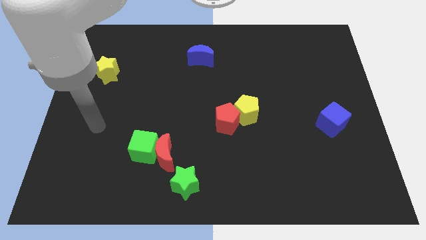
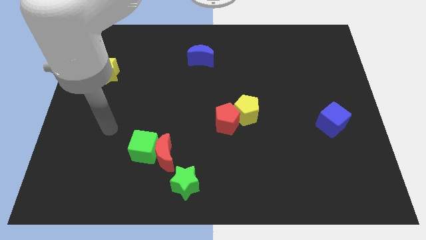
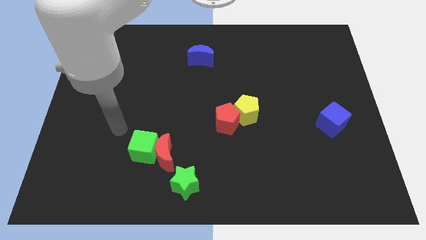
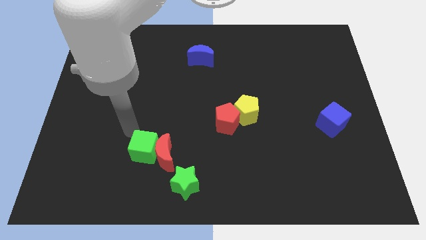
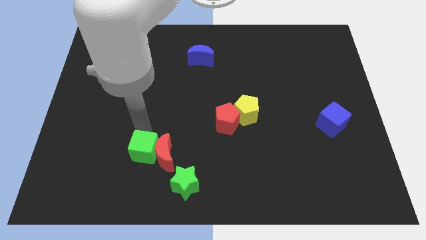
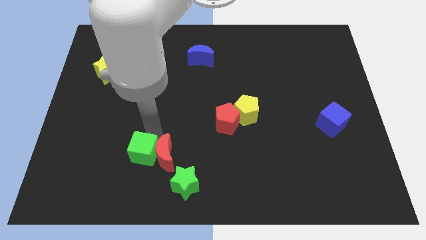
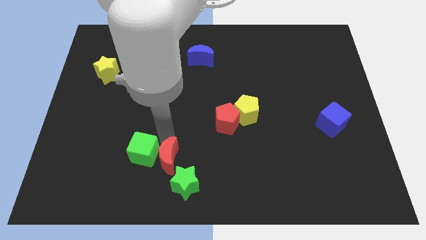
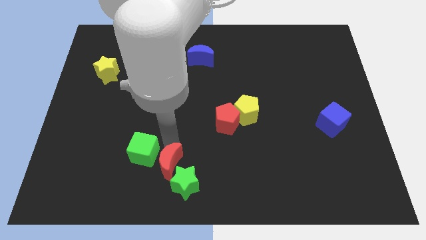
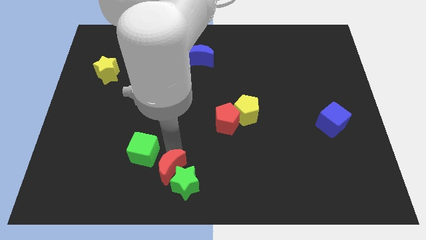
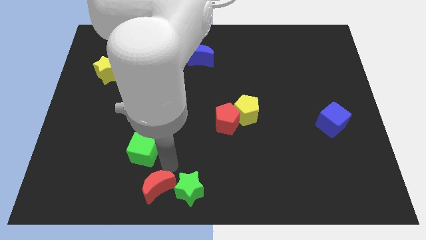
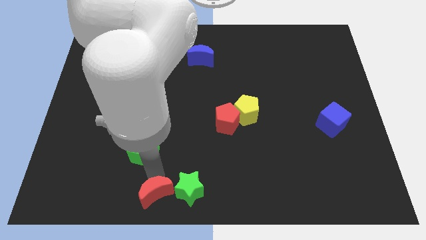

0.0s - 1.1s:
pull the green cube apart from the red moon

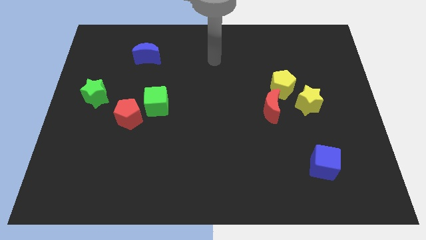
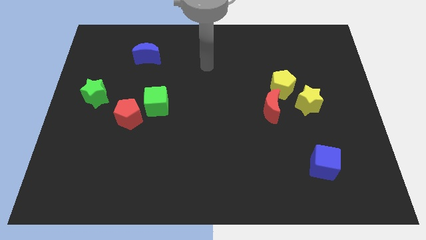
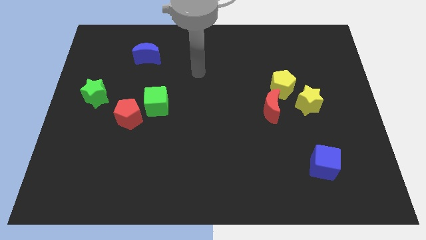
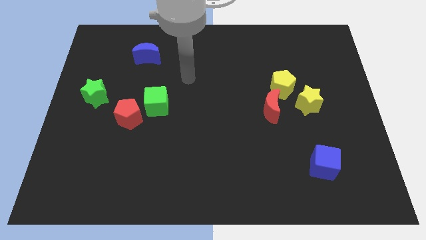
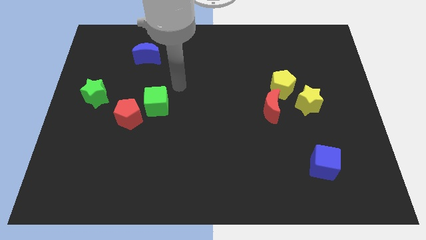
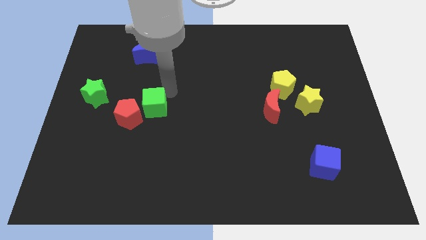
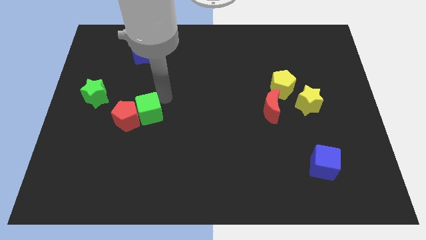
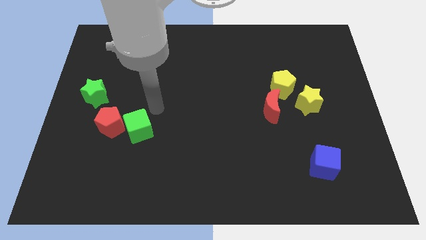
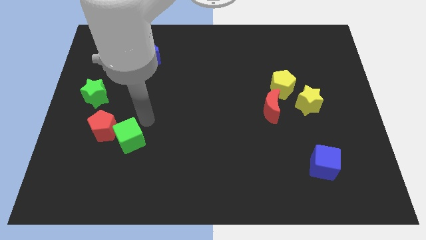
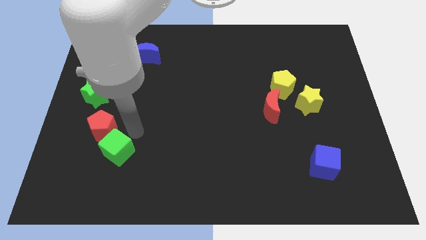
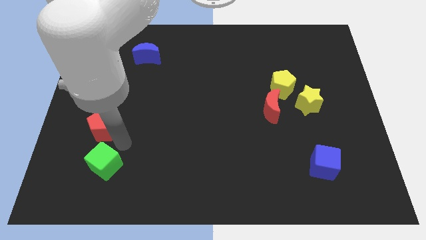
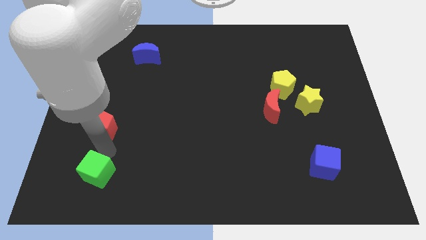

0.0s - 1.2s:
move the red pentagon away from the green cube

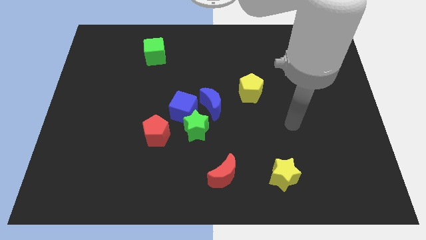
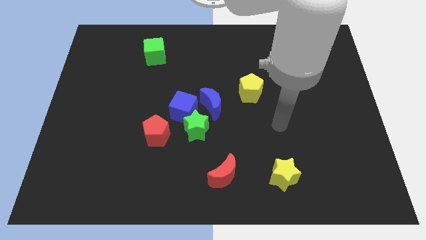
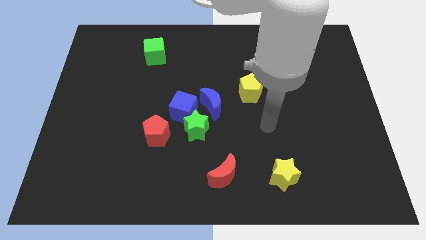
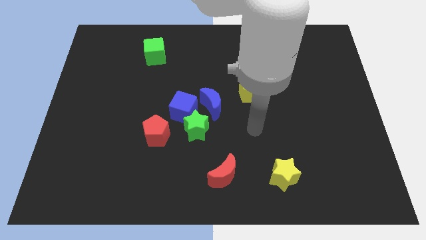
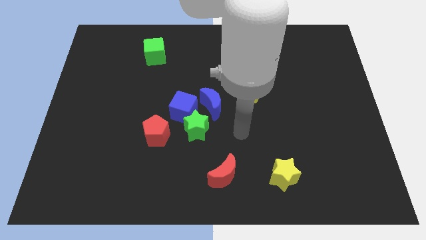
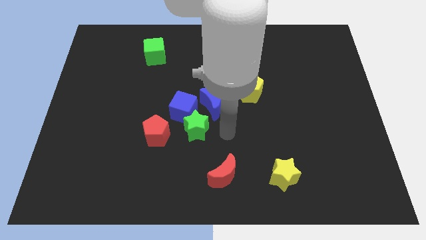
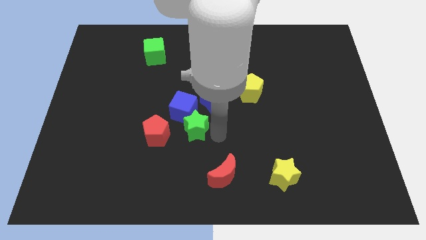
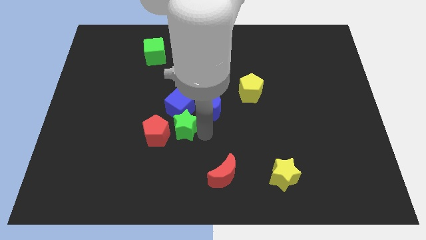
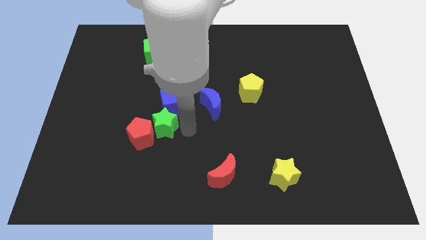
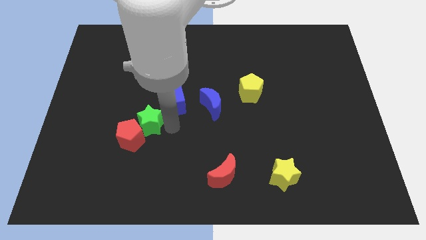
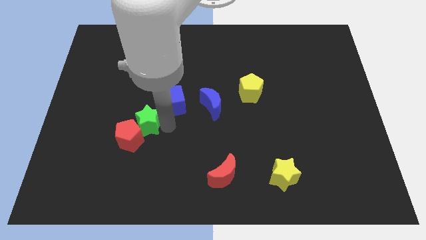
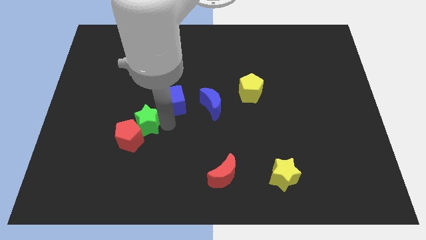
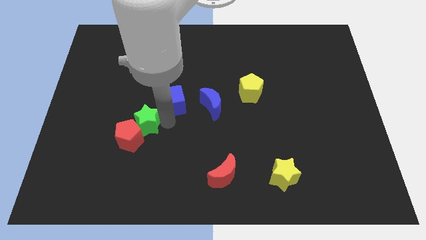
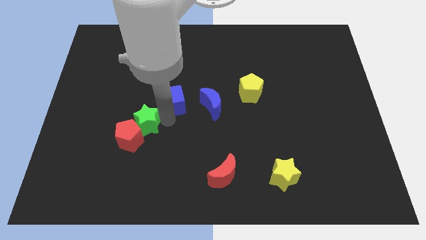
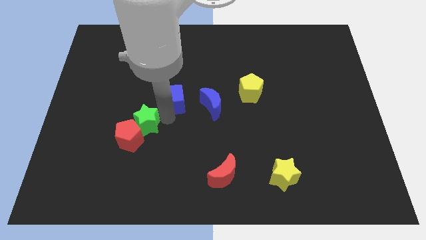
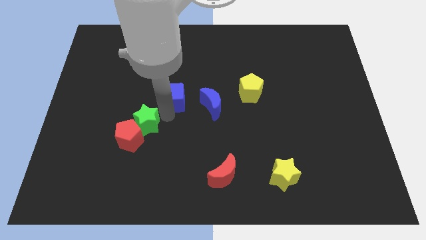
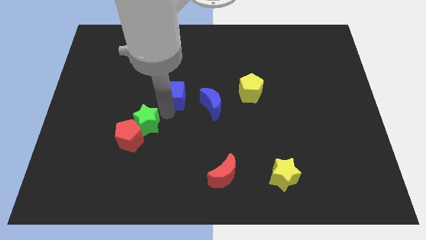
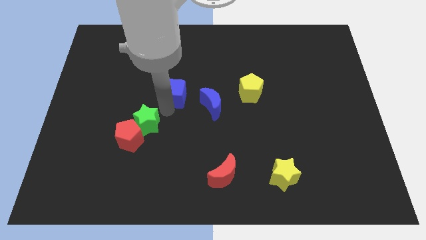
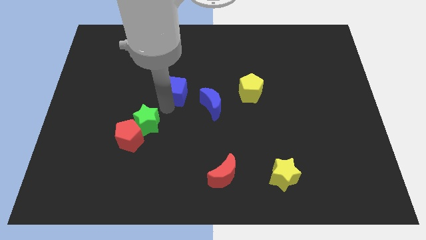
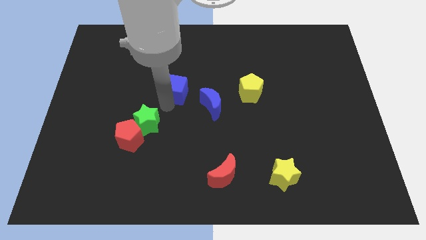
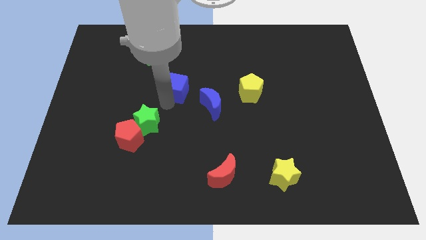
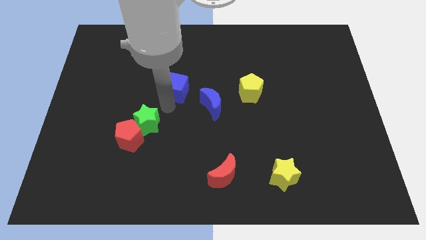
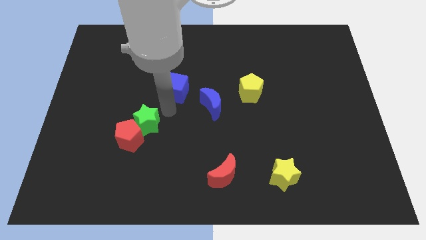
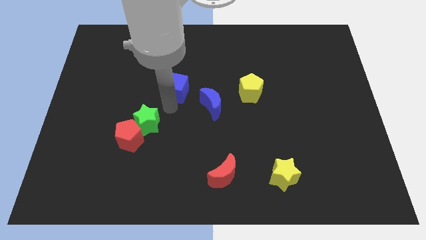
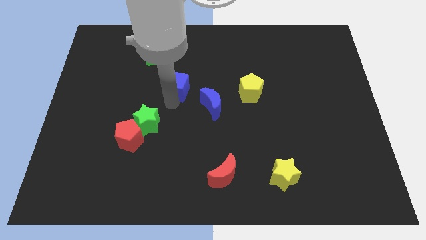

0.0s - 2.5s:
move the blue cube away from the group

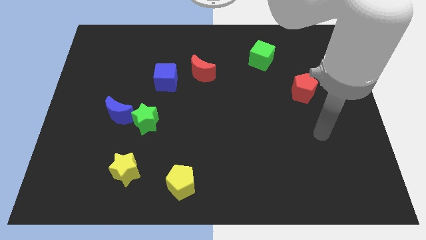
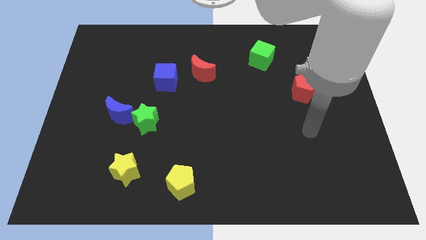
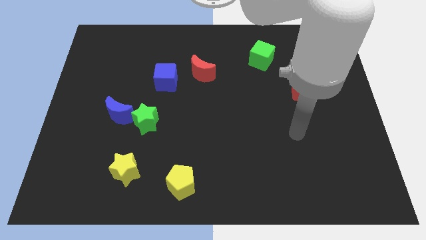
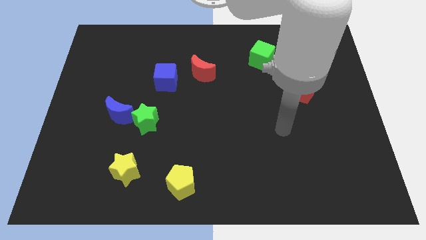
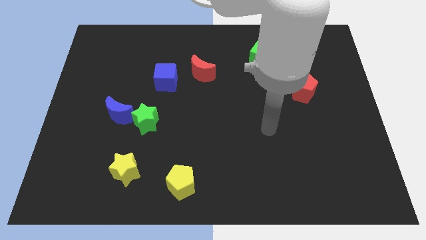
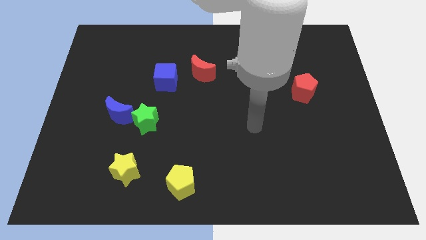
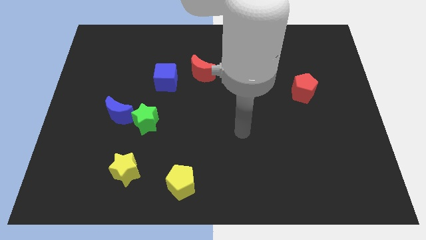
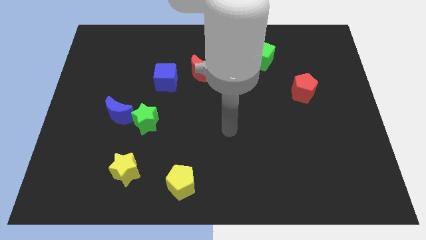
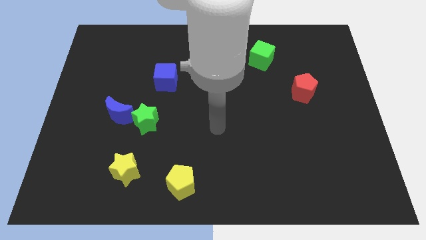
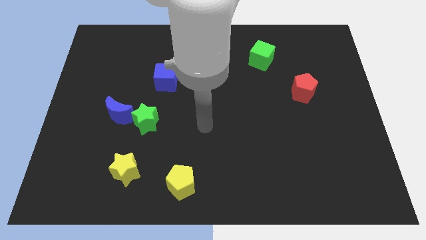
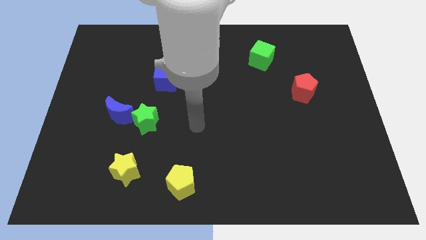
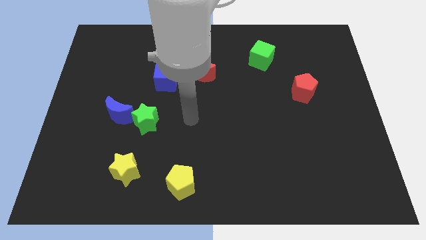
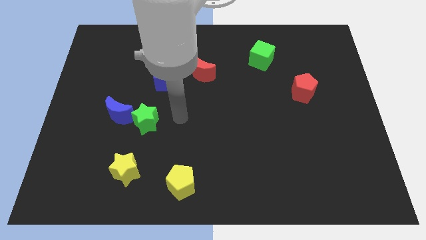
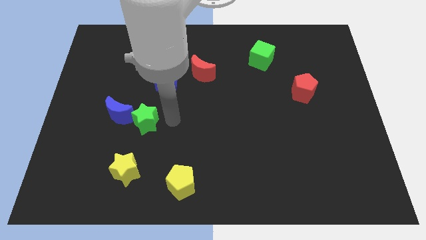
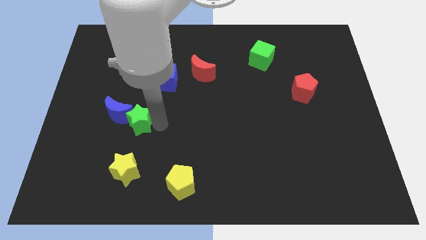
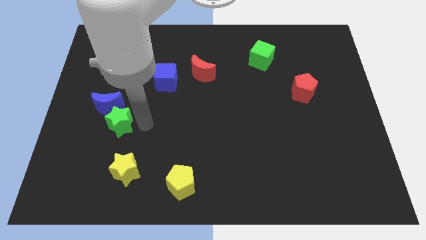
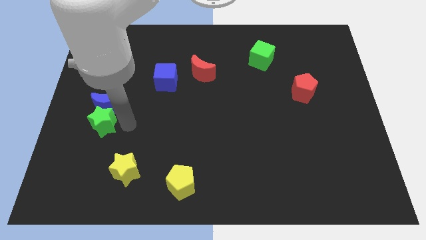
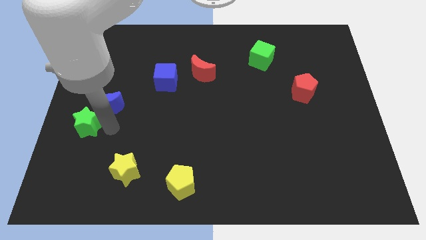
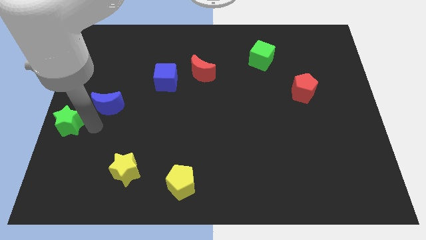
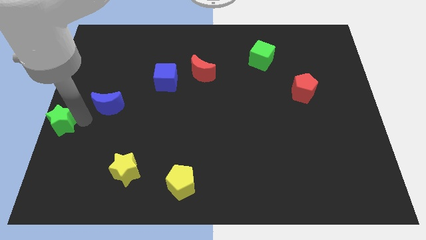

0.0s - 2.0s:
separate the blue moon from the green star

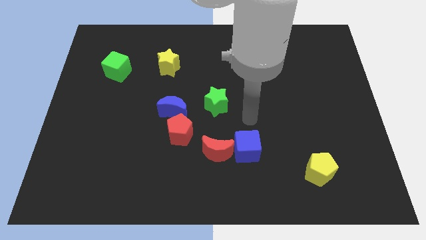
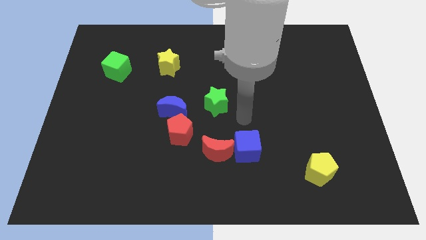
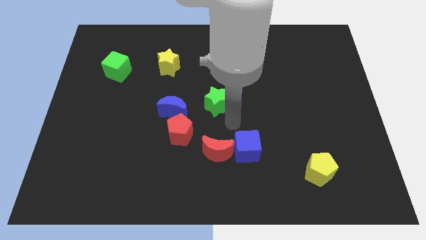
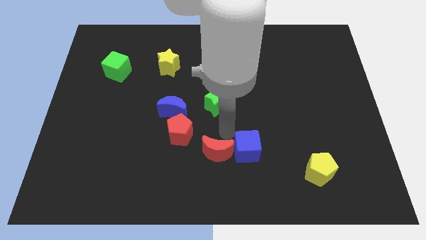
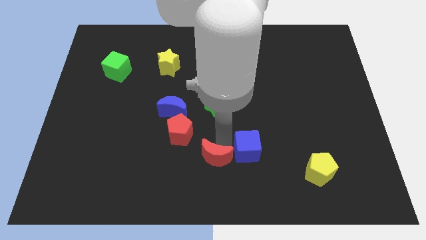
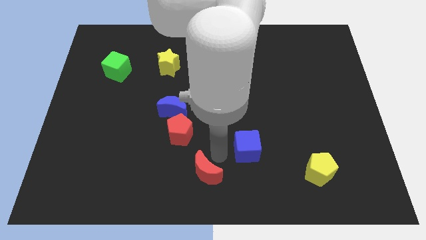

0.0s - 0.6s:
separate the blue cube from the red moon

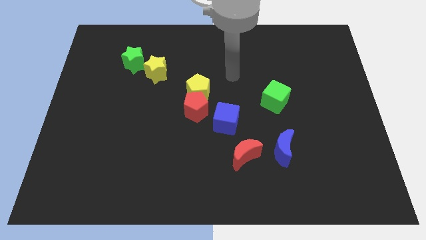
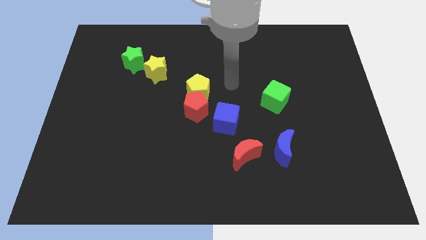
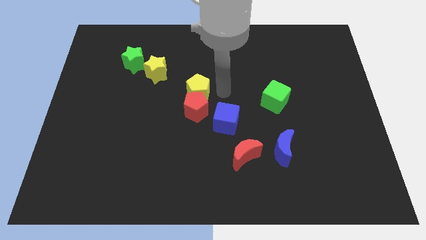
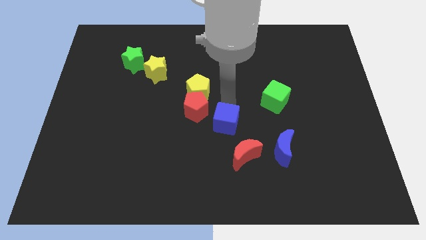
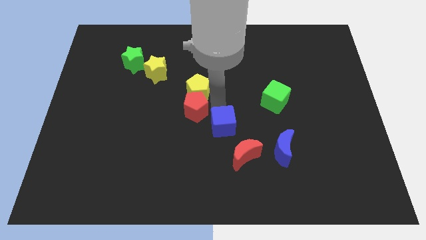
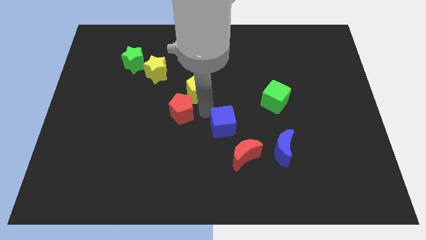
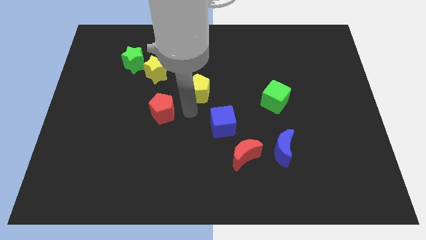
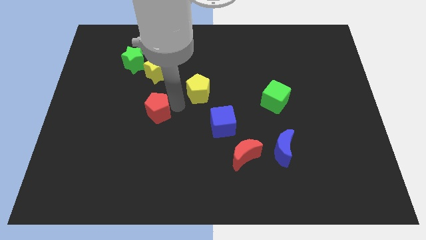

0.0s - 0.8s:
pull the yellow pentagon apart from the red pentagon

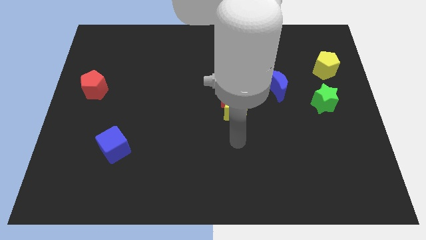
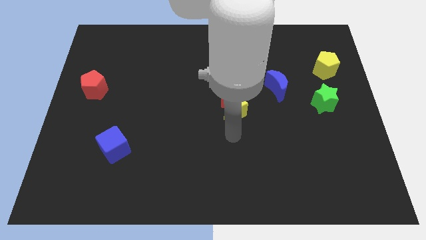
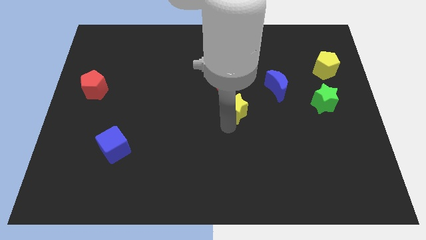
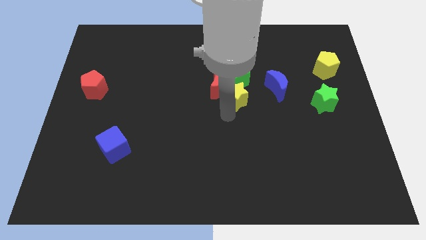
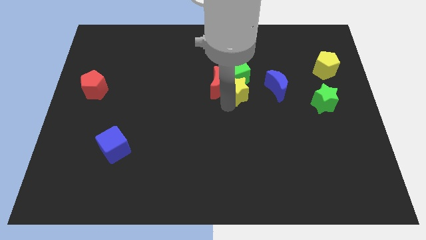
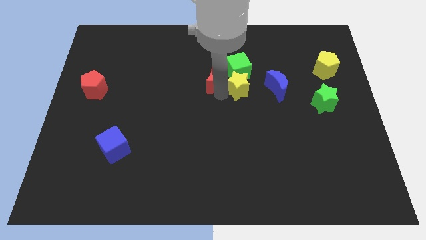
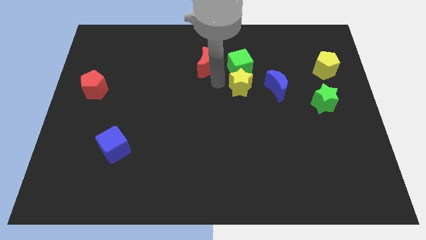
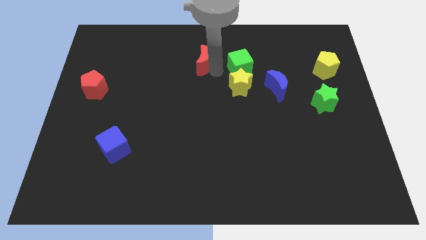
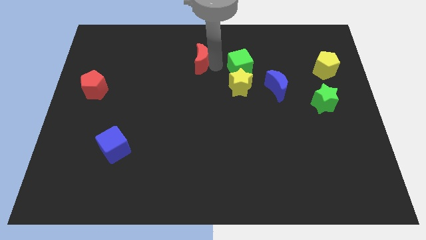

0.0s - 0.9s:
separate the green cube from the red moon

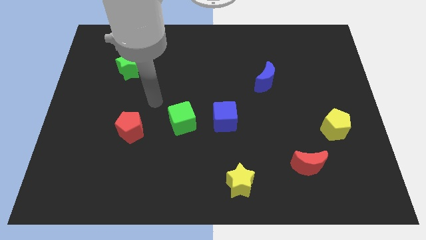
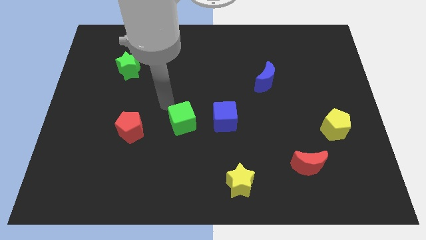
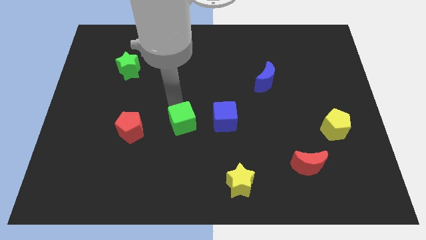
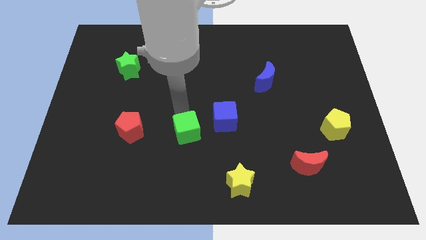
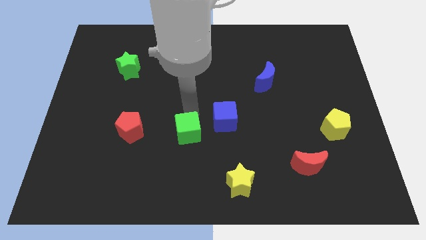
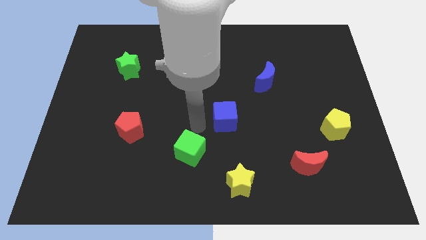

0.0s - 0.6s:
move the blue cube away from the green cube
